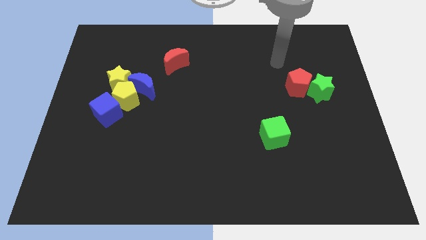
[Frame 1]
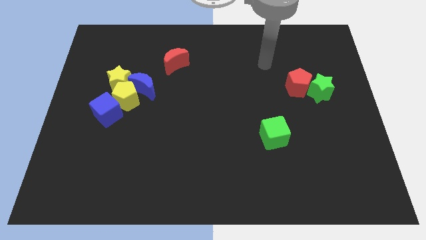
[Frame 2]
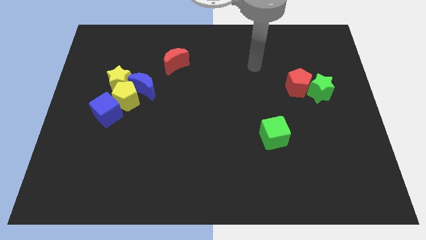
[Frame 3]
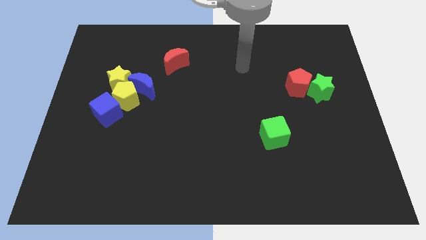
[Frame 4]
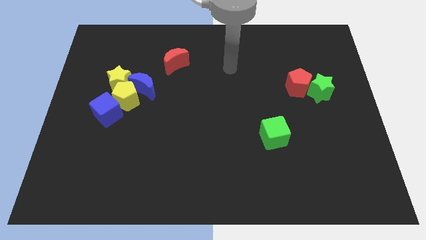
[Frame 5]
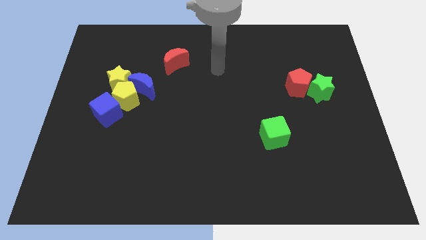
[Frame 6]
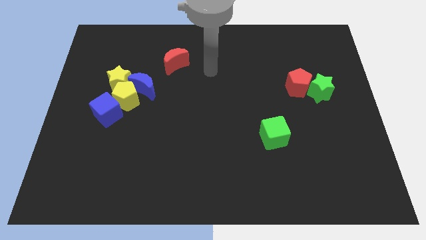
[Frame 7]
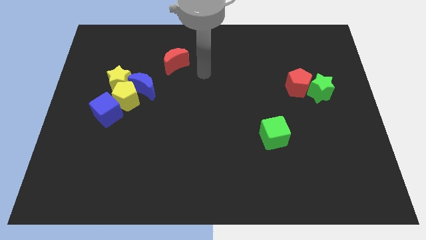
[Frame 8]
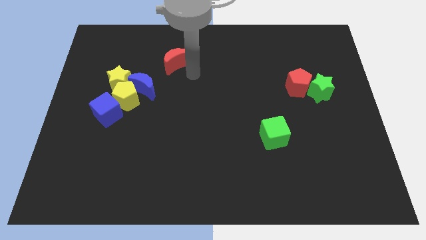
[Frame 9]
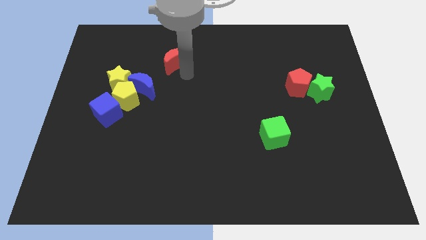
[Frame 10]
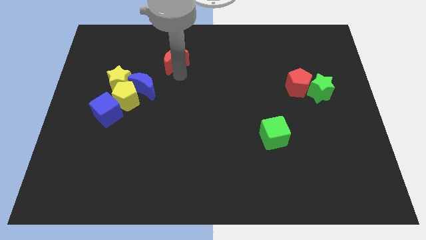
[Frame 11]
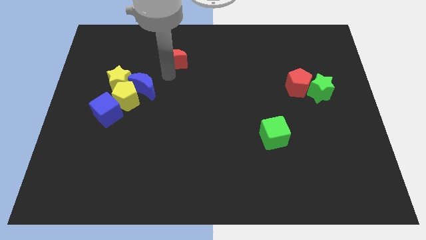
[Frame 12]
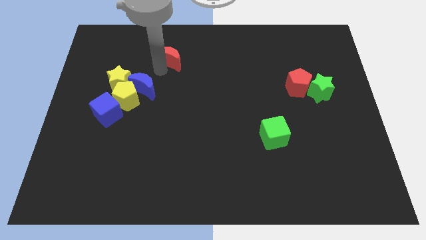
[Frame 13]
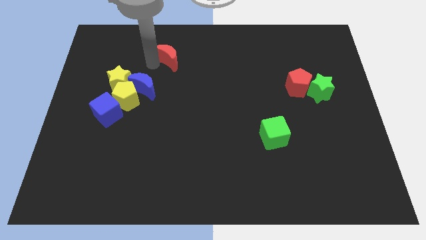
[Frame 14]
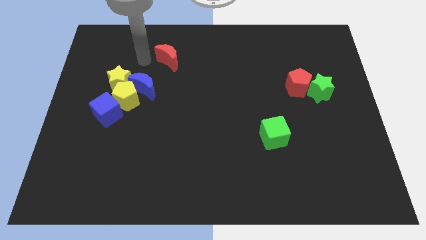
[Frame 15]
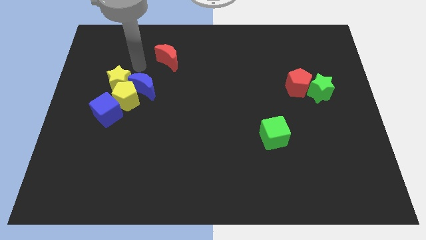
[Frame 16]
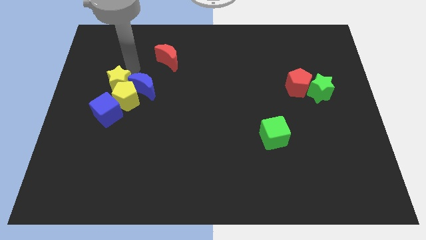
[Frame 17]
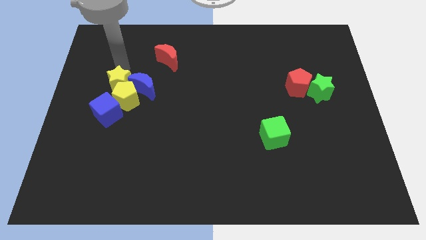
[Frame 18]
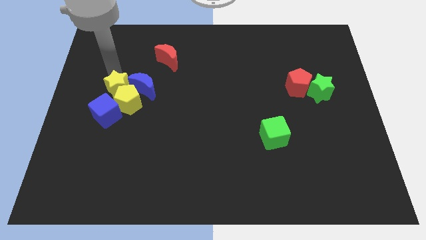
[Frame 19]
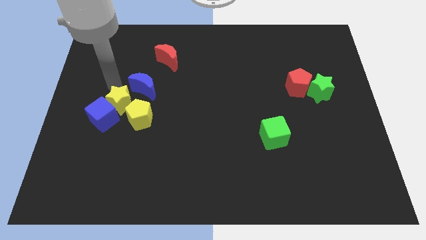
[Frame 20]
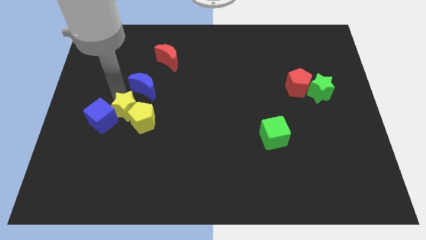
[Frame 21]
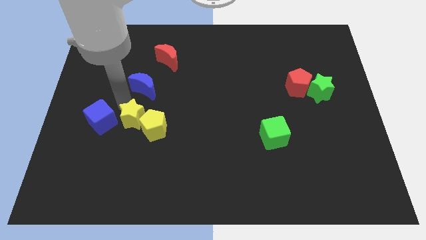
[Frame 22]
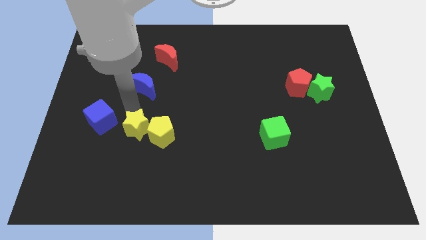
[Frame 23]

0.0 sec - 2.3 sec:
separate the yellow pentagon from the yellow star, blue moon, and blue cube

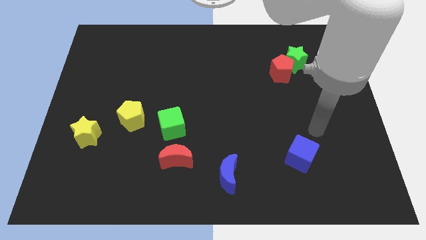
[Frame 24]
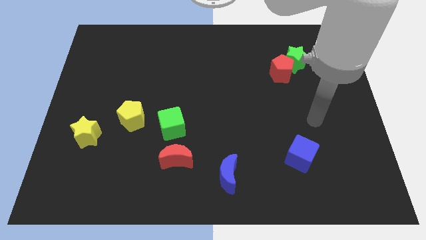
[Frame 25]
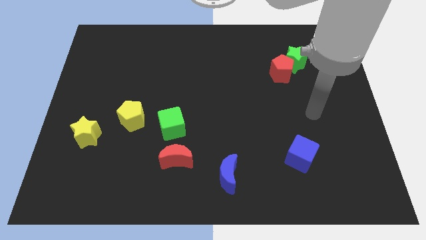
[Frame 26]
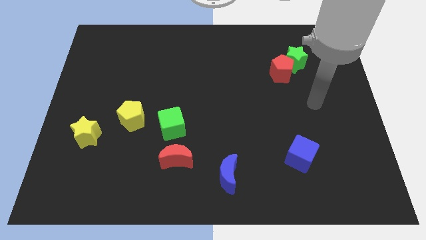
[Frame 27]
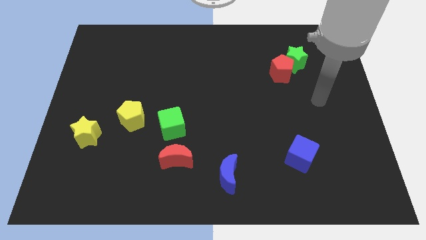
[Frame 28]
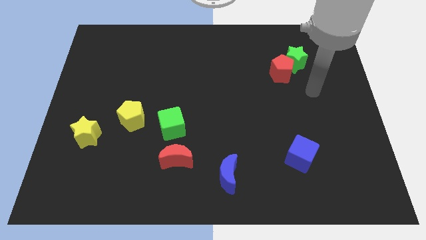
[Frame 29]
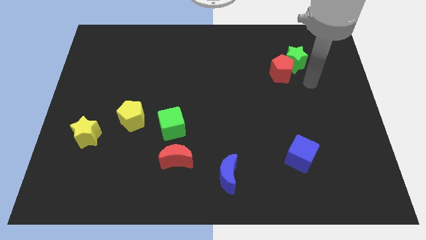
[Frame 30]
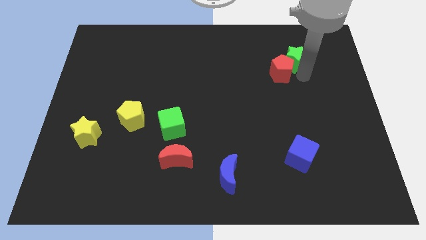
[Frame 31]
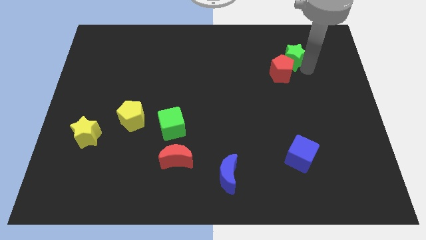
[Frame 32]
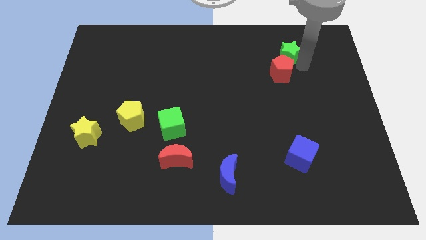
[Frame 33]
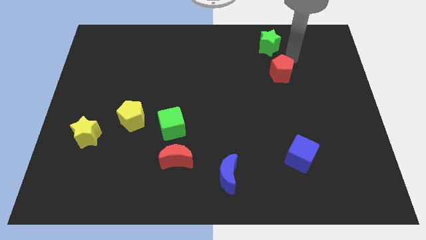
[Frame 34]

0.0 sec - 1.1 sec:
move the red pentagon away from the green star

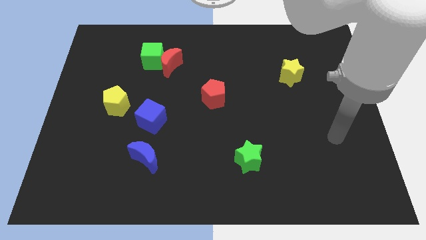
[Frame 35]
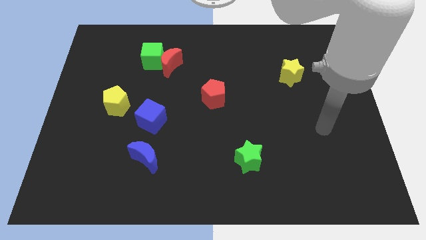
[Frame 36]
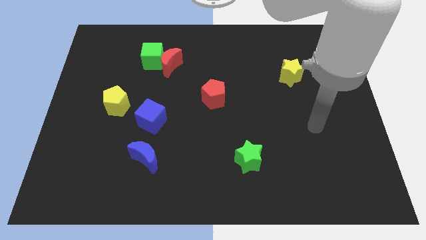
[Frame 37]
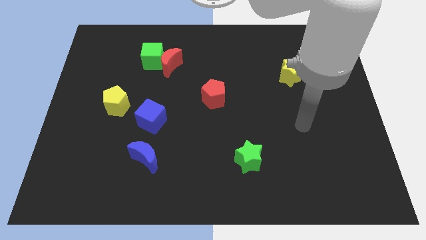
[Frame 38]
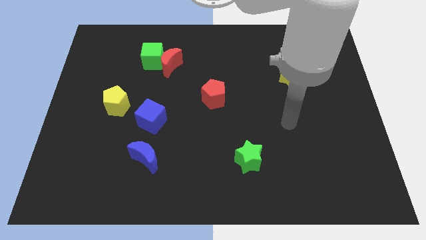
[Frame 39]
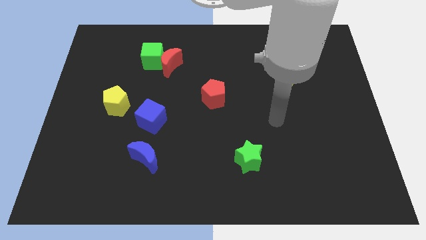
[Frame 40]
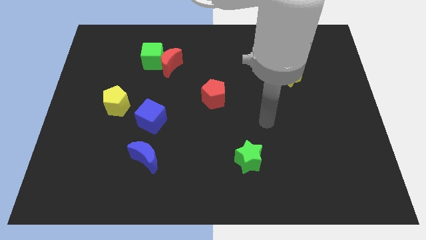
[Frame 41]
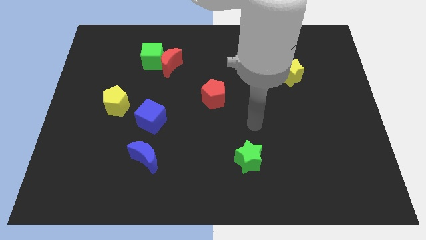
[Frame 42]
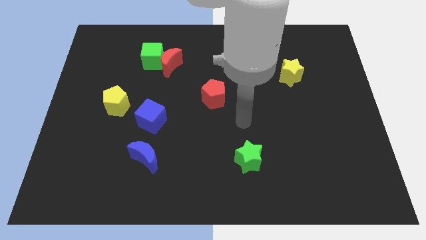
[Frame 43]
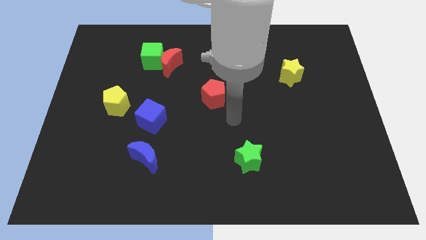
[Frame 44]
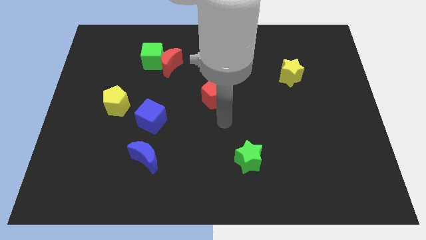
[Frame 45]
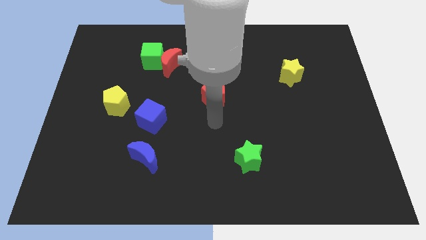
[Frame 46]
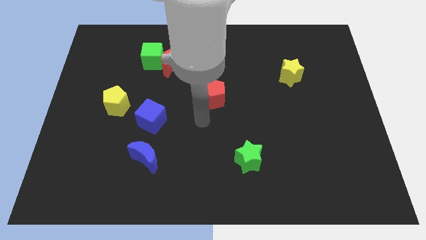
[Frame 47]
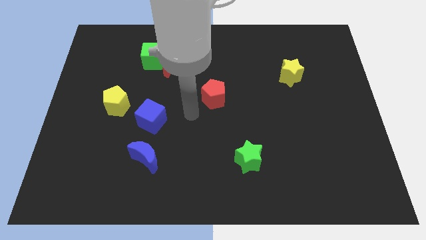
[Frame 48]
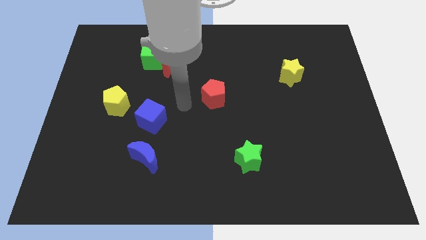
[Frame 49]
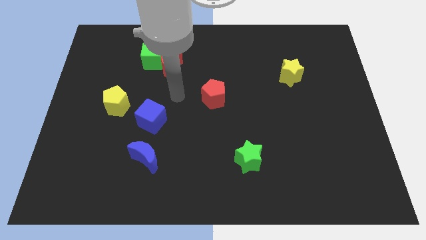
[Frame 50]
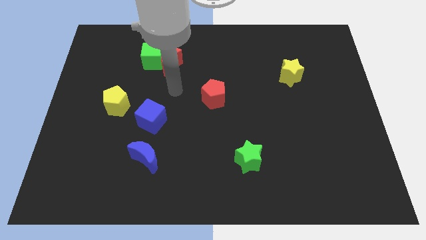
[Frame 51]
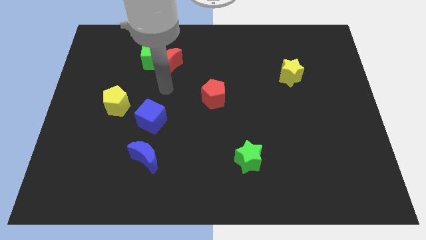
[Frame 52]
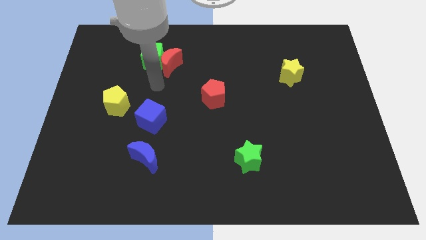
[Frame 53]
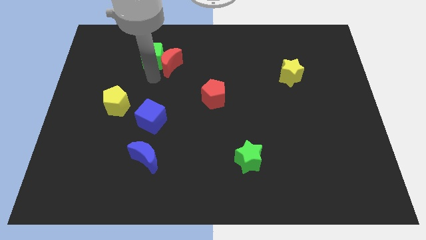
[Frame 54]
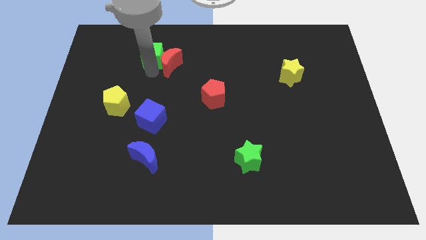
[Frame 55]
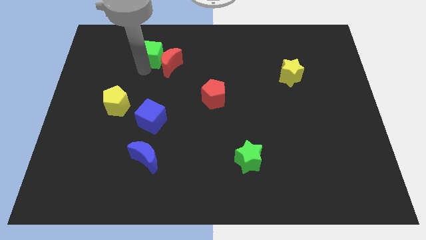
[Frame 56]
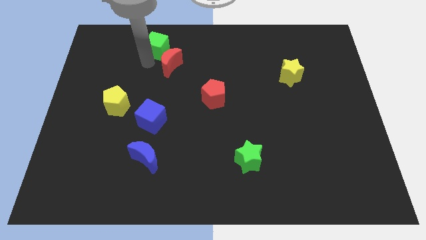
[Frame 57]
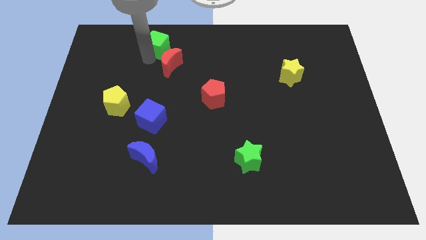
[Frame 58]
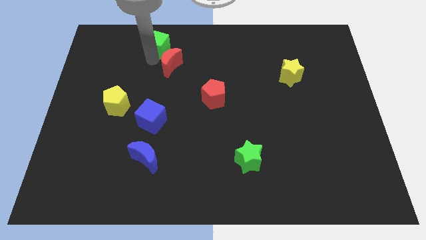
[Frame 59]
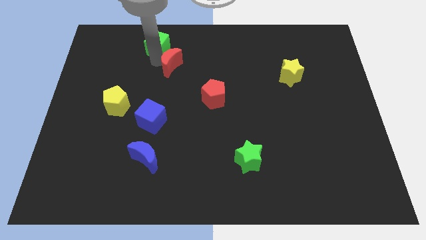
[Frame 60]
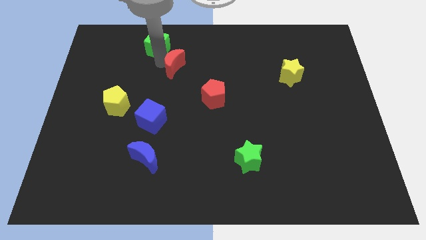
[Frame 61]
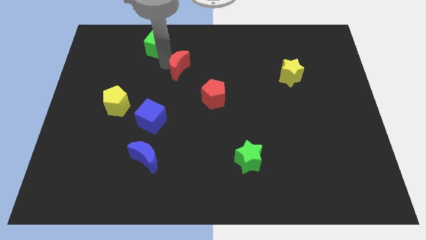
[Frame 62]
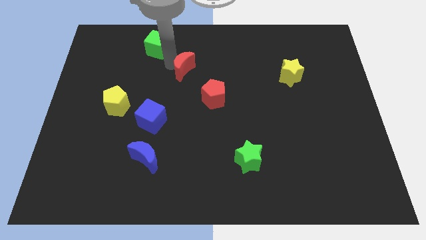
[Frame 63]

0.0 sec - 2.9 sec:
pull the red moon apart from the green cube

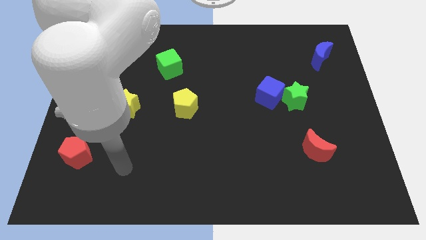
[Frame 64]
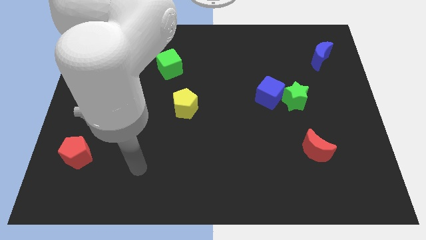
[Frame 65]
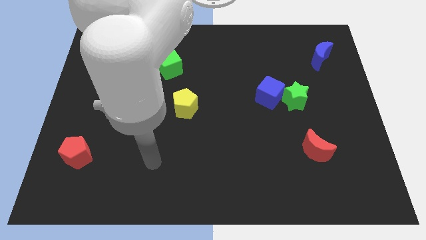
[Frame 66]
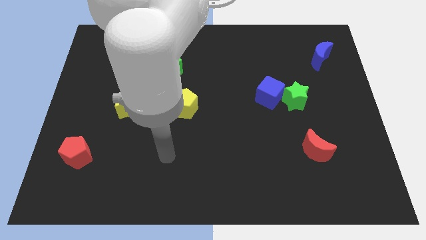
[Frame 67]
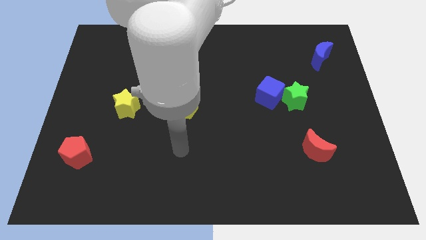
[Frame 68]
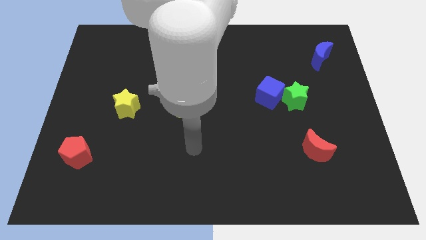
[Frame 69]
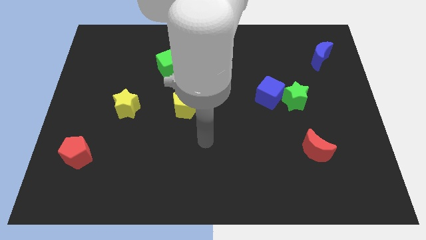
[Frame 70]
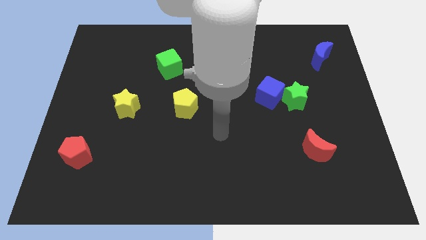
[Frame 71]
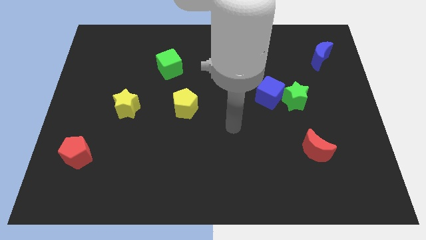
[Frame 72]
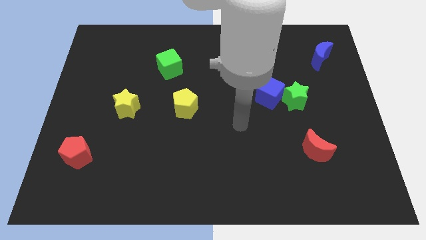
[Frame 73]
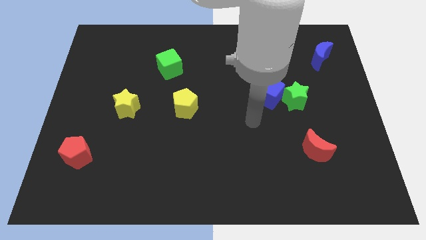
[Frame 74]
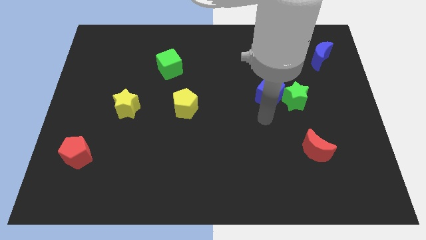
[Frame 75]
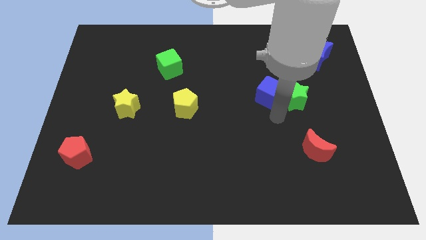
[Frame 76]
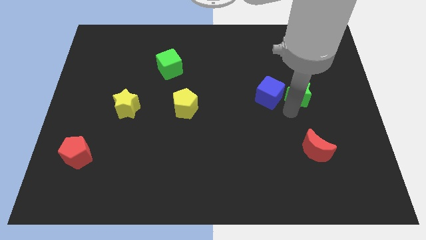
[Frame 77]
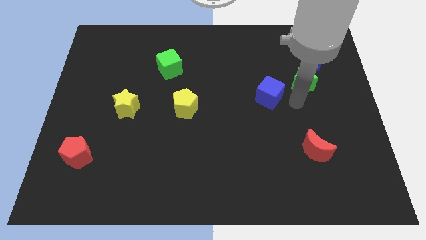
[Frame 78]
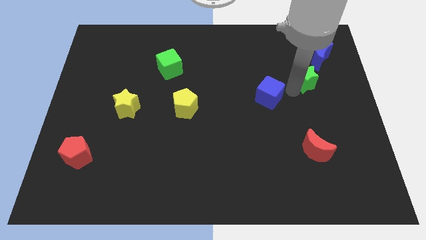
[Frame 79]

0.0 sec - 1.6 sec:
pull the blue cube apart from the green star

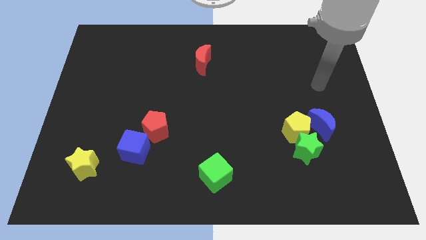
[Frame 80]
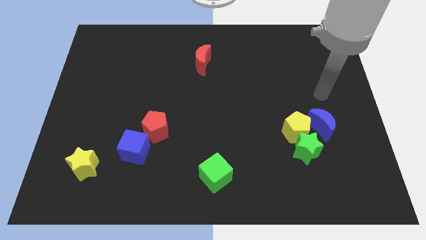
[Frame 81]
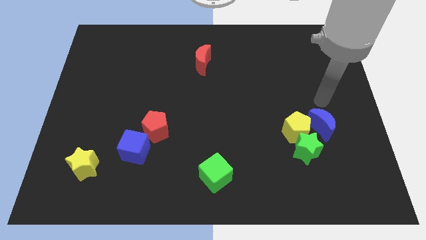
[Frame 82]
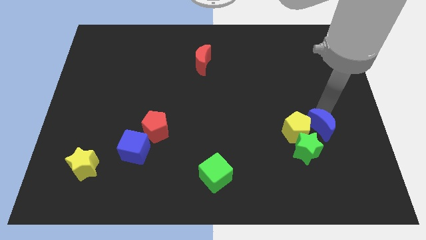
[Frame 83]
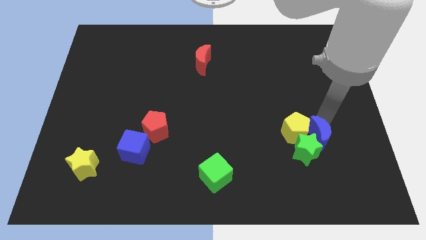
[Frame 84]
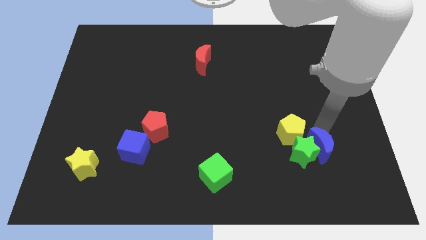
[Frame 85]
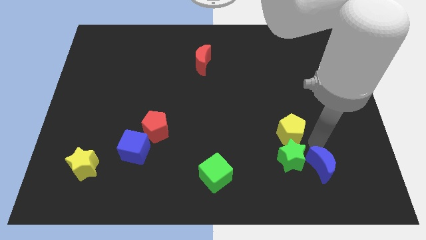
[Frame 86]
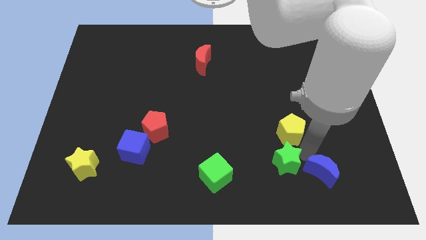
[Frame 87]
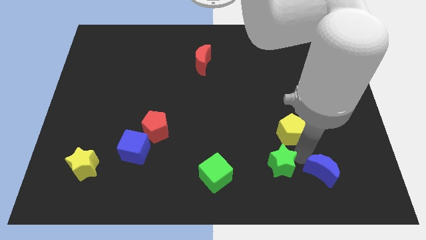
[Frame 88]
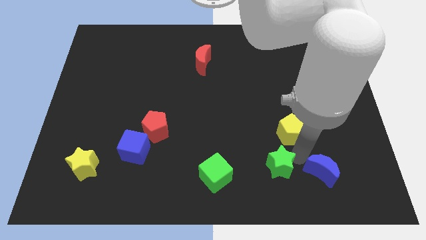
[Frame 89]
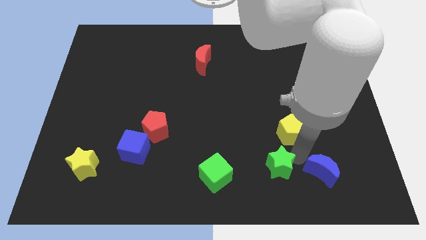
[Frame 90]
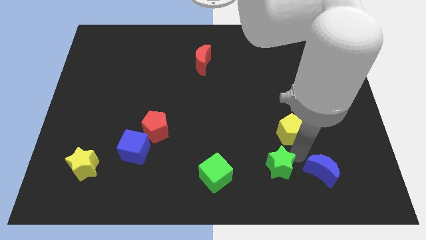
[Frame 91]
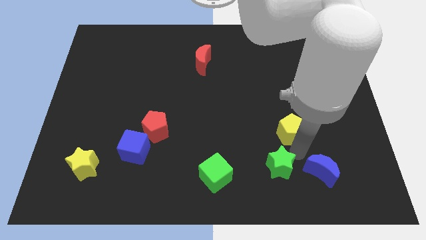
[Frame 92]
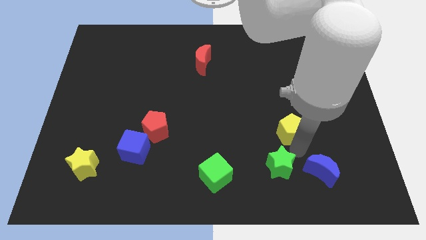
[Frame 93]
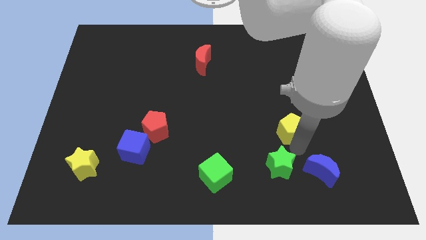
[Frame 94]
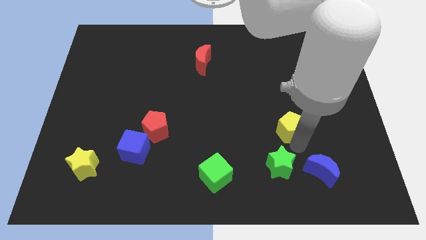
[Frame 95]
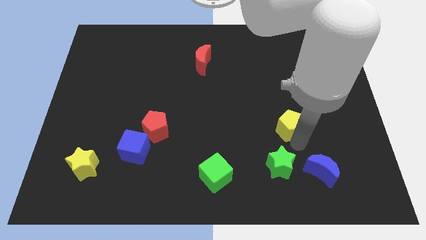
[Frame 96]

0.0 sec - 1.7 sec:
pull the yellow pentagon apart from the green star and blue moon
